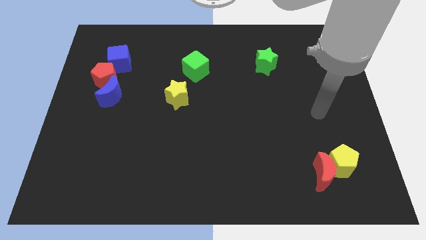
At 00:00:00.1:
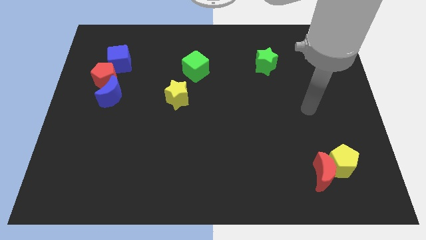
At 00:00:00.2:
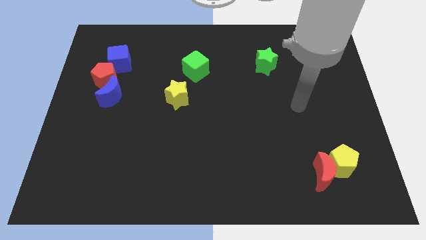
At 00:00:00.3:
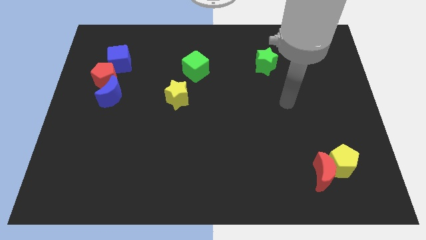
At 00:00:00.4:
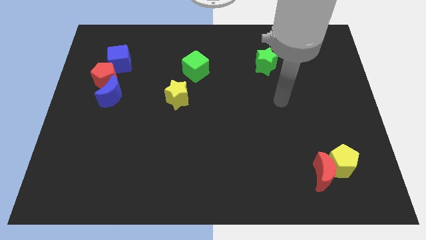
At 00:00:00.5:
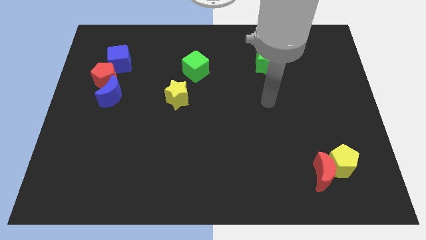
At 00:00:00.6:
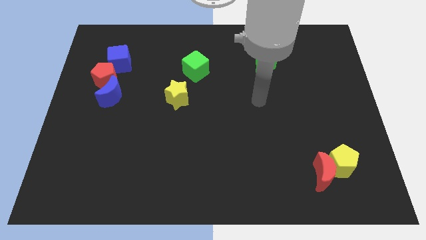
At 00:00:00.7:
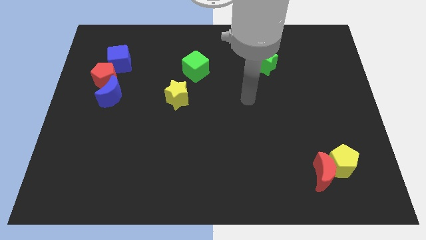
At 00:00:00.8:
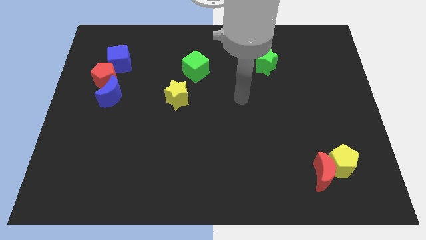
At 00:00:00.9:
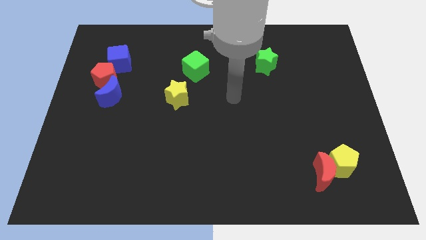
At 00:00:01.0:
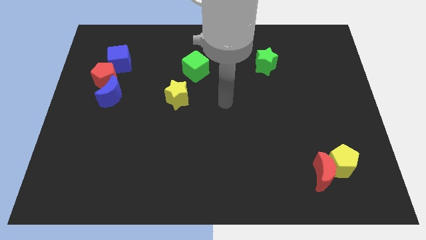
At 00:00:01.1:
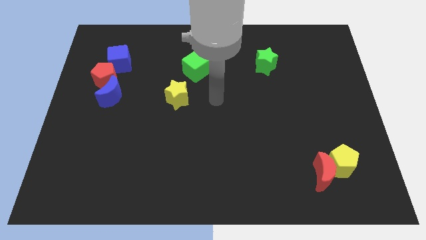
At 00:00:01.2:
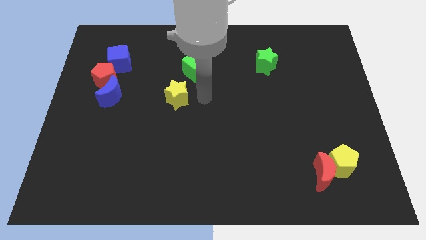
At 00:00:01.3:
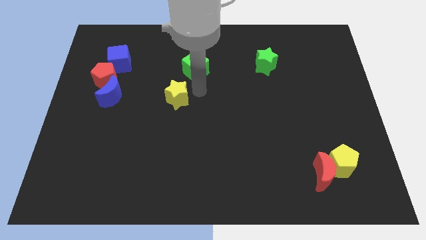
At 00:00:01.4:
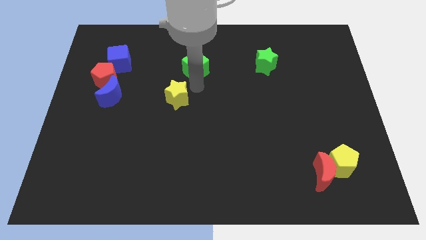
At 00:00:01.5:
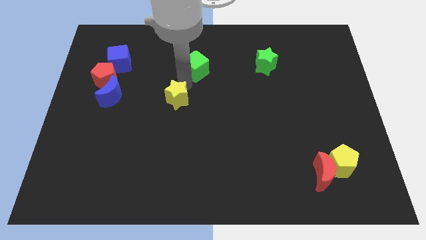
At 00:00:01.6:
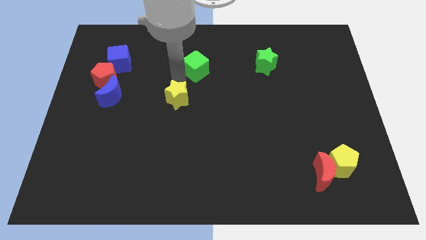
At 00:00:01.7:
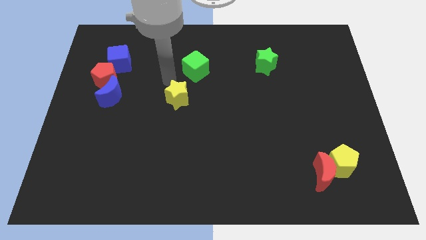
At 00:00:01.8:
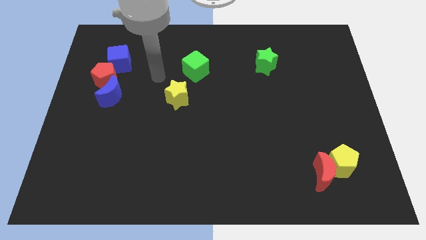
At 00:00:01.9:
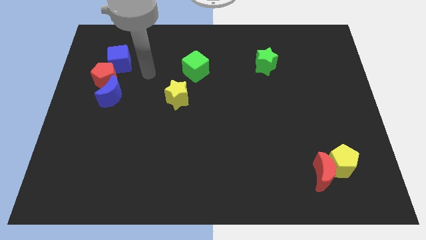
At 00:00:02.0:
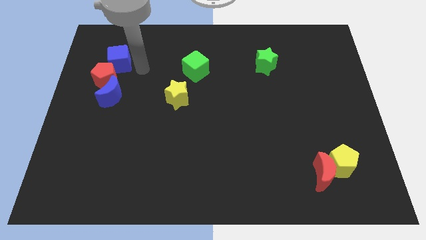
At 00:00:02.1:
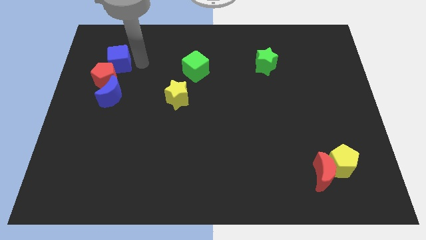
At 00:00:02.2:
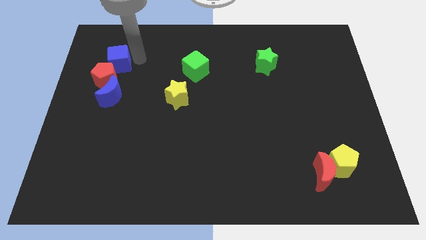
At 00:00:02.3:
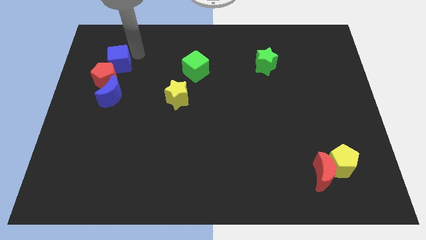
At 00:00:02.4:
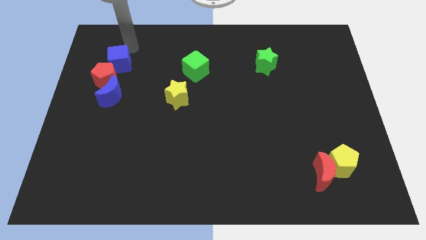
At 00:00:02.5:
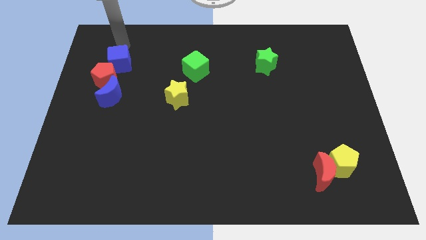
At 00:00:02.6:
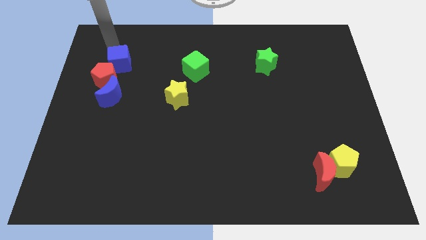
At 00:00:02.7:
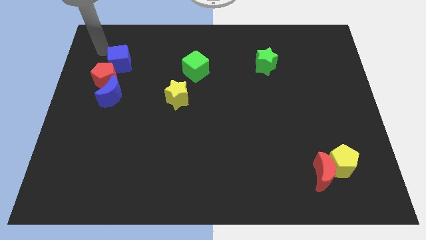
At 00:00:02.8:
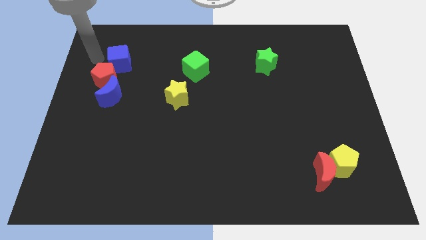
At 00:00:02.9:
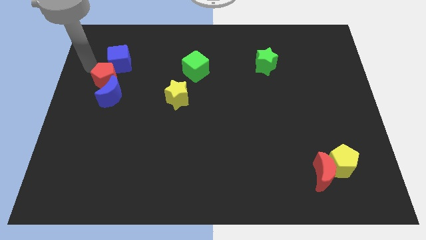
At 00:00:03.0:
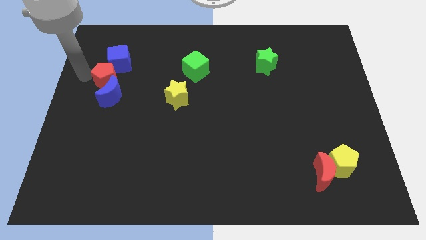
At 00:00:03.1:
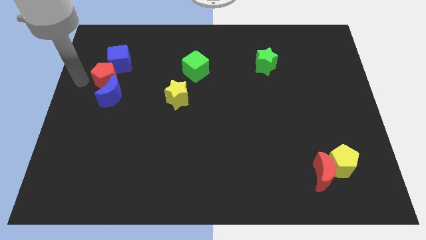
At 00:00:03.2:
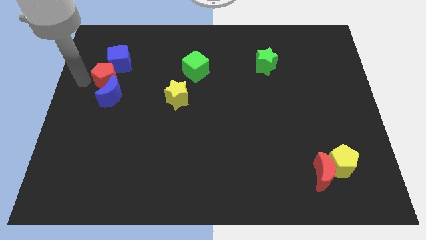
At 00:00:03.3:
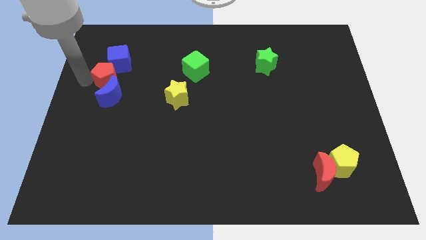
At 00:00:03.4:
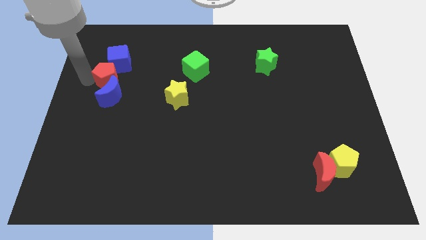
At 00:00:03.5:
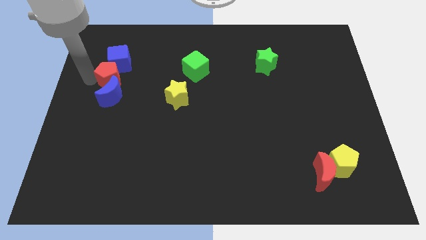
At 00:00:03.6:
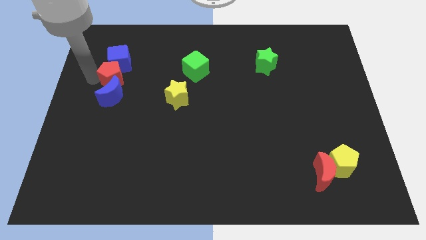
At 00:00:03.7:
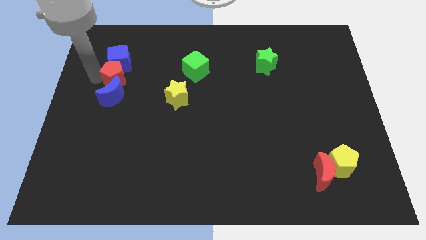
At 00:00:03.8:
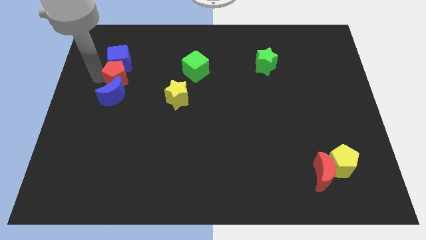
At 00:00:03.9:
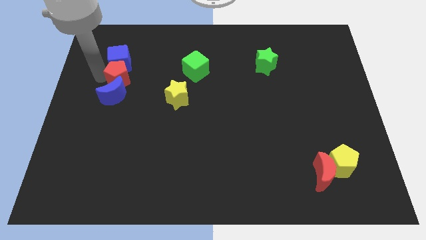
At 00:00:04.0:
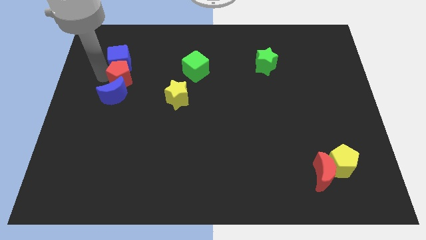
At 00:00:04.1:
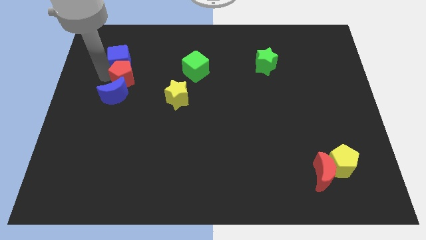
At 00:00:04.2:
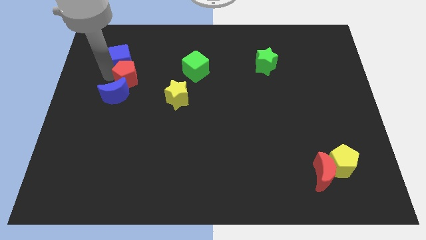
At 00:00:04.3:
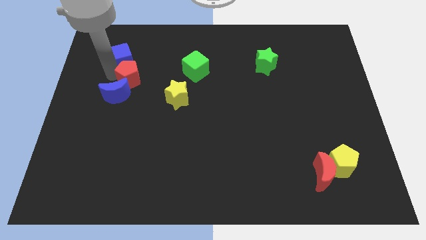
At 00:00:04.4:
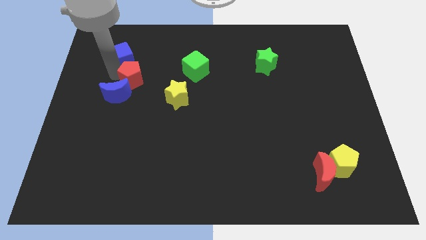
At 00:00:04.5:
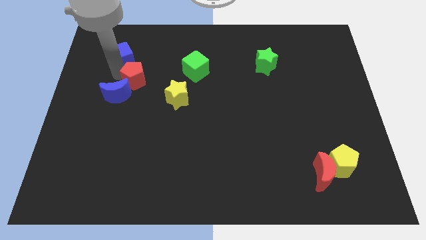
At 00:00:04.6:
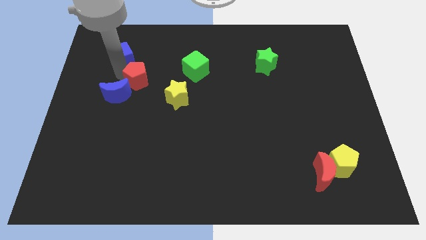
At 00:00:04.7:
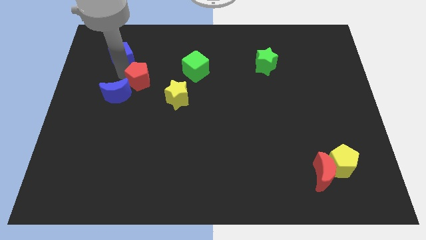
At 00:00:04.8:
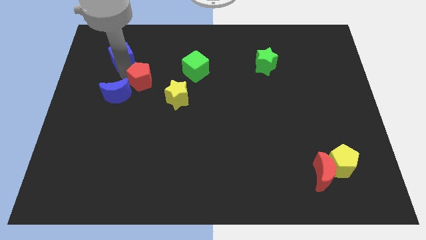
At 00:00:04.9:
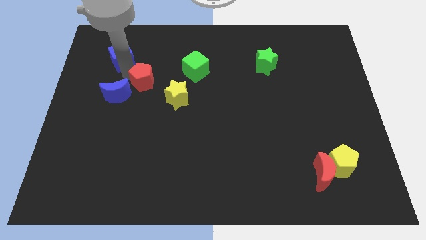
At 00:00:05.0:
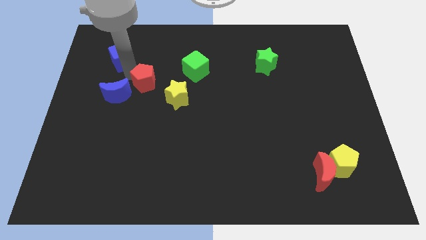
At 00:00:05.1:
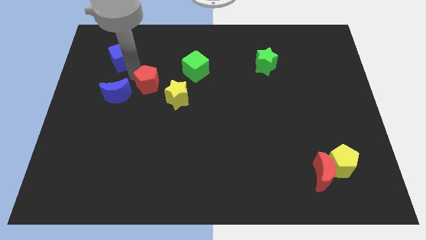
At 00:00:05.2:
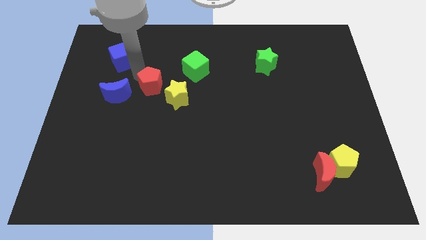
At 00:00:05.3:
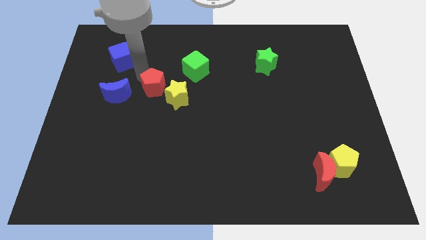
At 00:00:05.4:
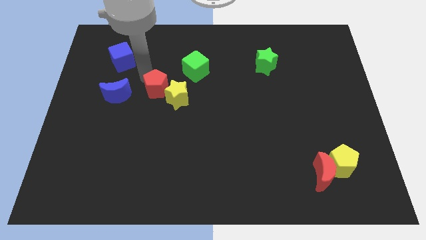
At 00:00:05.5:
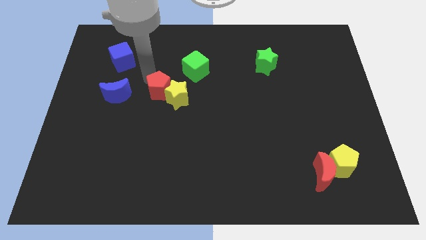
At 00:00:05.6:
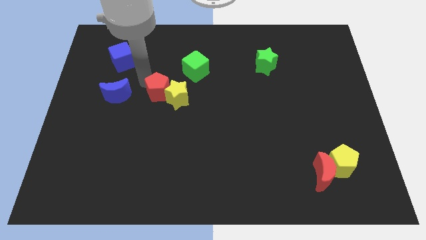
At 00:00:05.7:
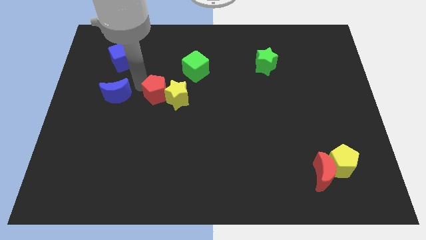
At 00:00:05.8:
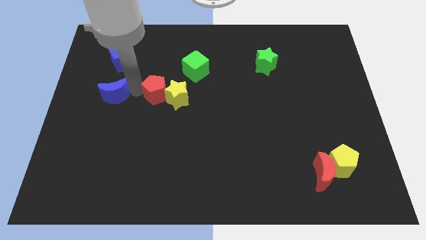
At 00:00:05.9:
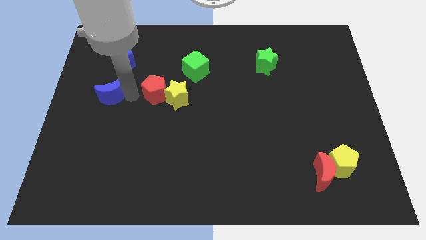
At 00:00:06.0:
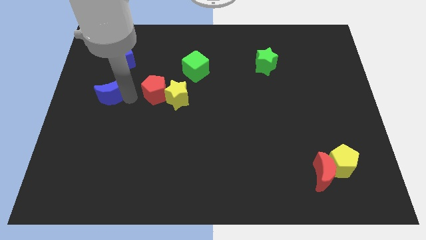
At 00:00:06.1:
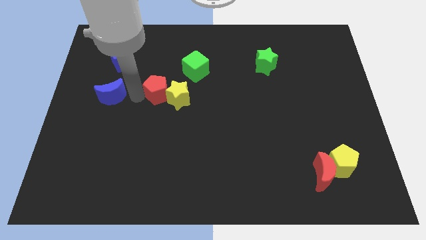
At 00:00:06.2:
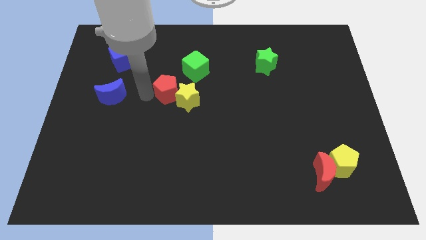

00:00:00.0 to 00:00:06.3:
put the red pentagon to the center of the board
